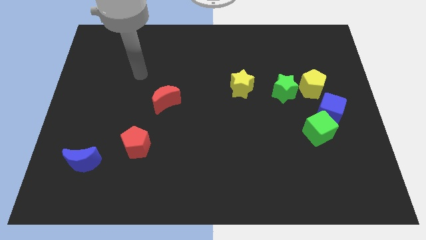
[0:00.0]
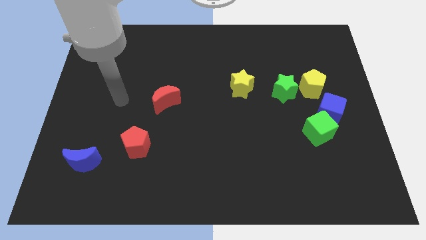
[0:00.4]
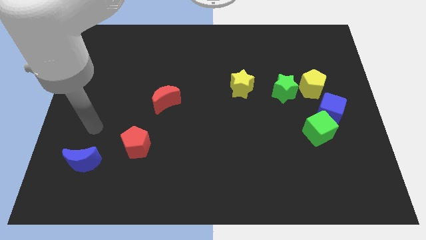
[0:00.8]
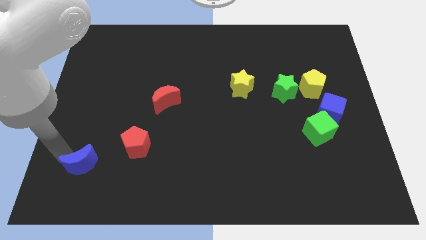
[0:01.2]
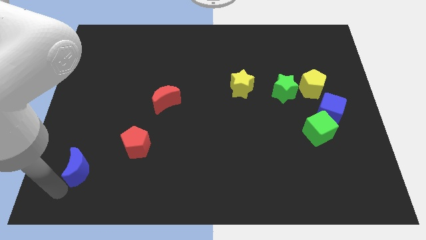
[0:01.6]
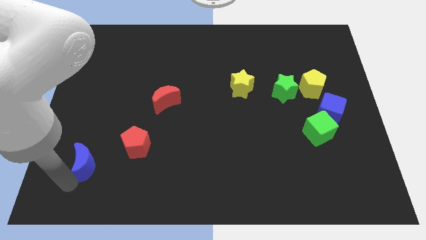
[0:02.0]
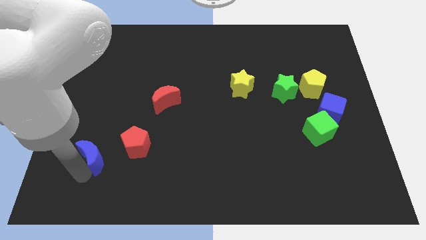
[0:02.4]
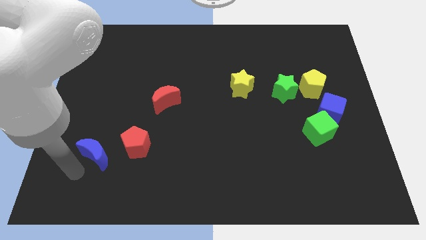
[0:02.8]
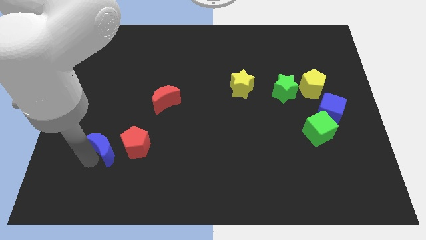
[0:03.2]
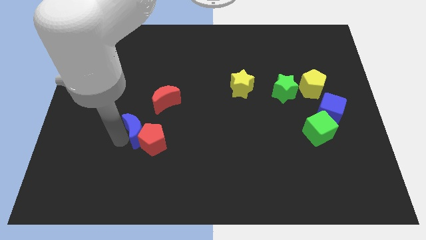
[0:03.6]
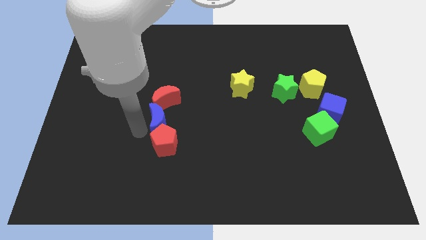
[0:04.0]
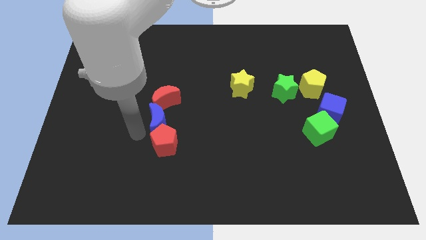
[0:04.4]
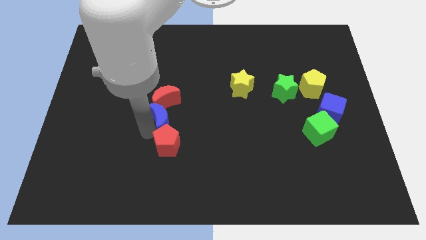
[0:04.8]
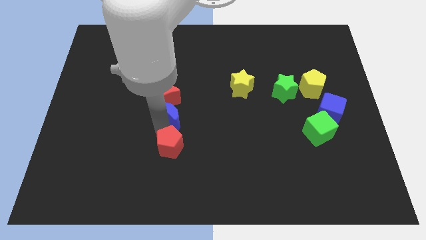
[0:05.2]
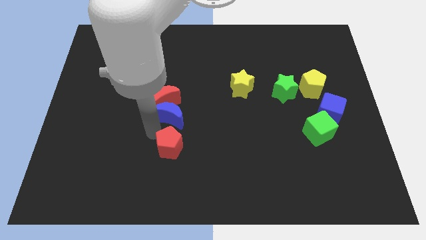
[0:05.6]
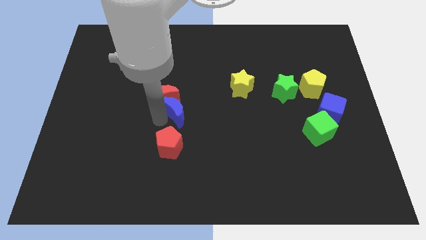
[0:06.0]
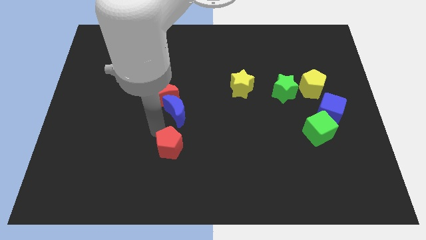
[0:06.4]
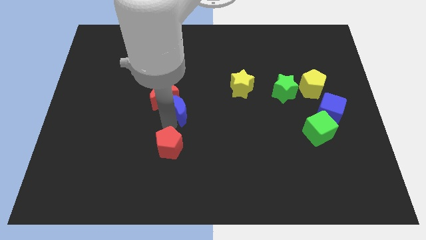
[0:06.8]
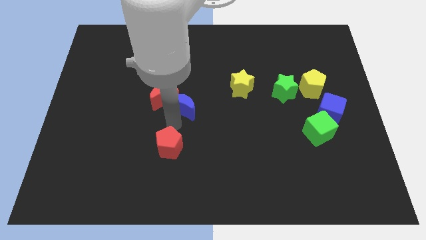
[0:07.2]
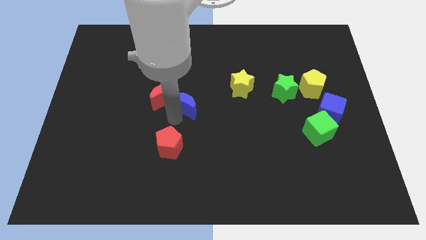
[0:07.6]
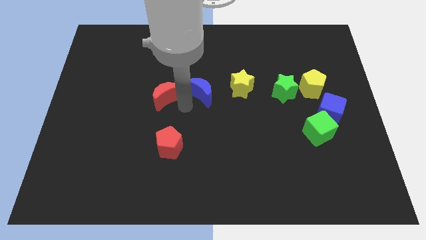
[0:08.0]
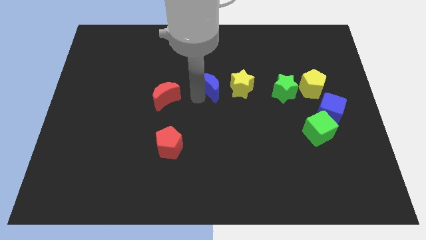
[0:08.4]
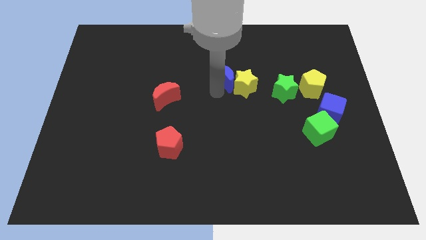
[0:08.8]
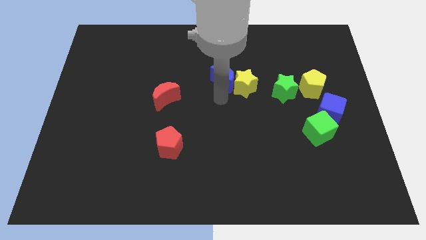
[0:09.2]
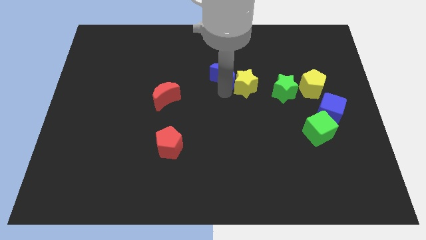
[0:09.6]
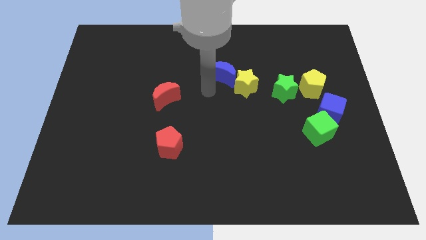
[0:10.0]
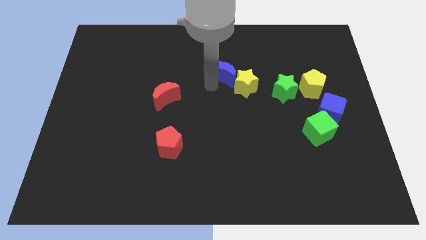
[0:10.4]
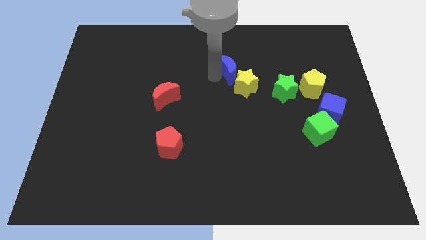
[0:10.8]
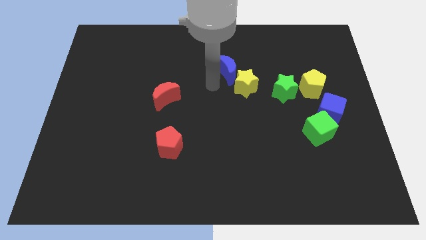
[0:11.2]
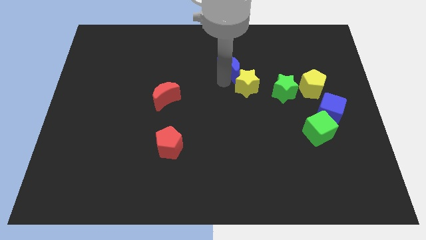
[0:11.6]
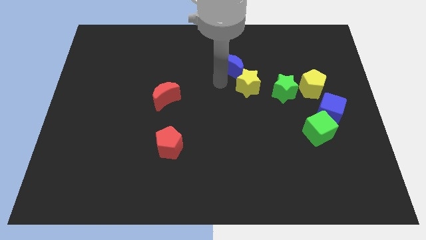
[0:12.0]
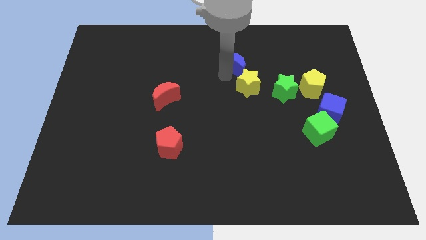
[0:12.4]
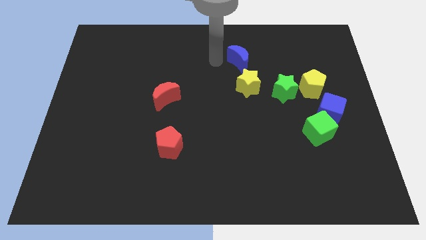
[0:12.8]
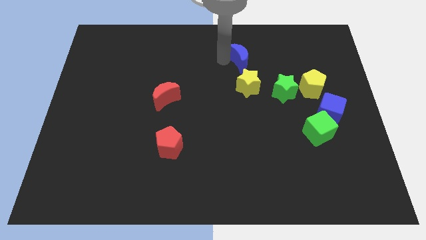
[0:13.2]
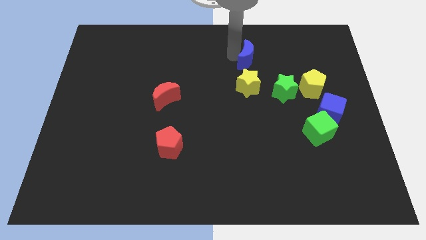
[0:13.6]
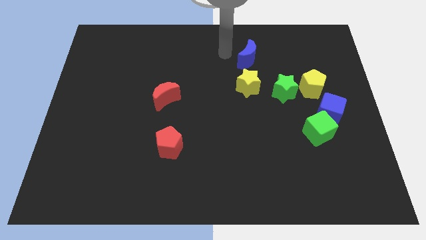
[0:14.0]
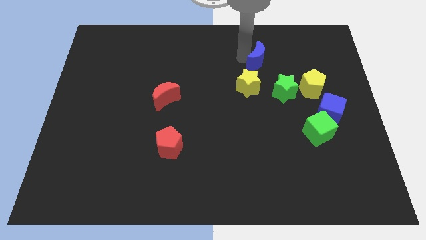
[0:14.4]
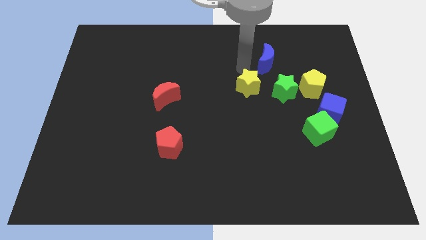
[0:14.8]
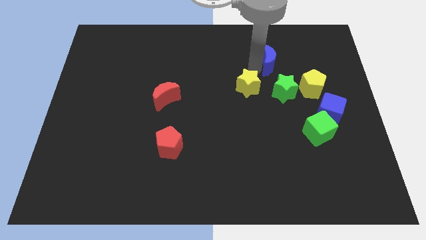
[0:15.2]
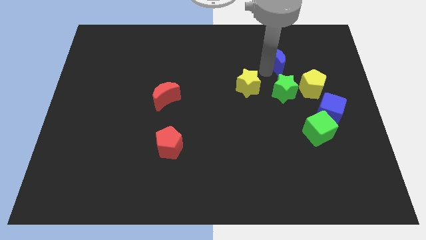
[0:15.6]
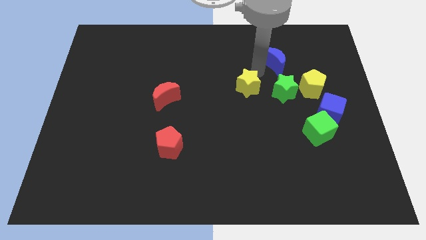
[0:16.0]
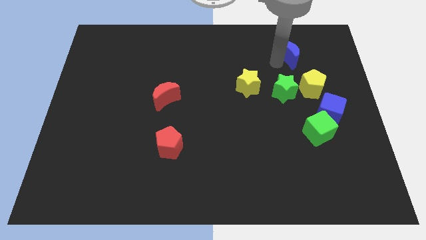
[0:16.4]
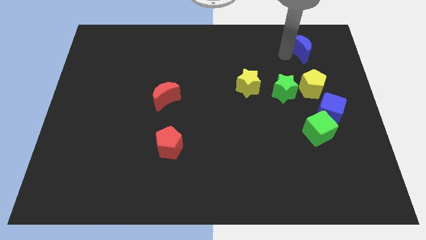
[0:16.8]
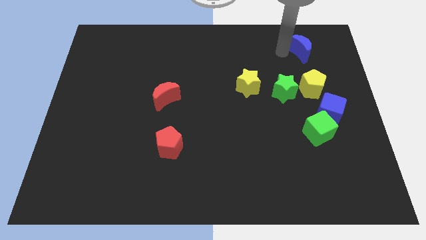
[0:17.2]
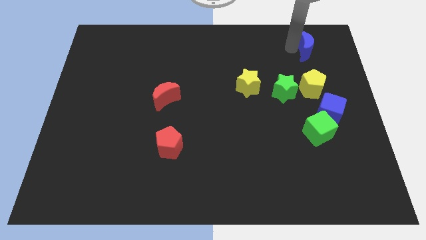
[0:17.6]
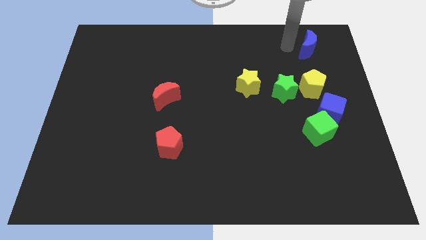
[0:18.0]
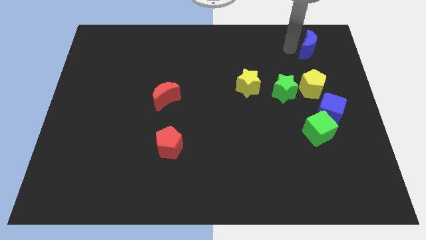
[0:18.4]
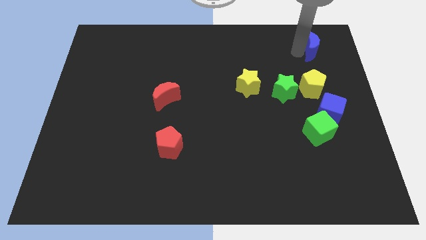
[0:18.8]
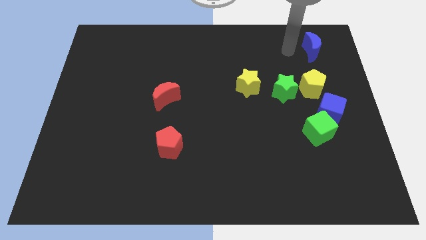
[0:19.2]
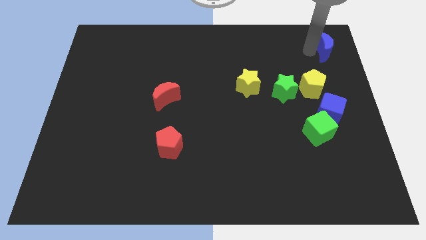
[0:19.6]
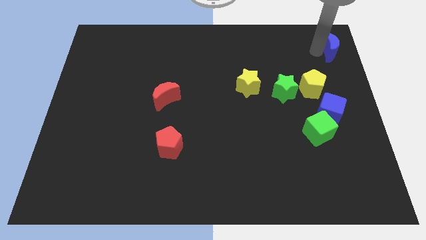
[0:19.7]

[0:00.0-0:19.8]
push the blue moon to the top right
